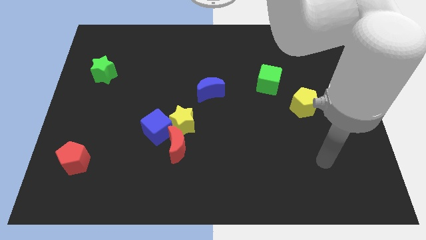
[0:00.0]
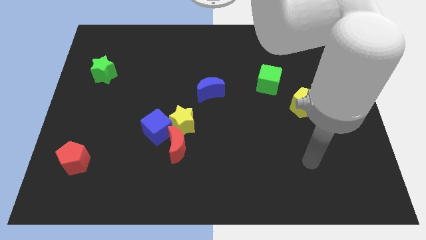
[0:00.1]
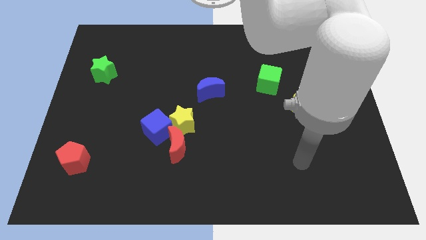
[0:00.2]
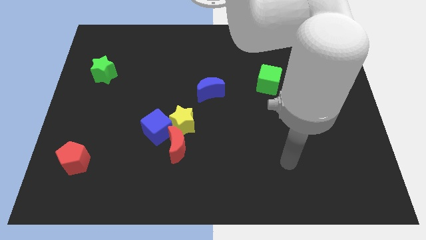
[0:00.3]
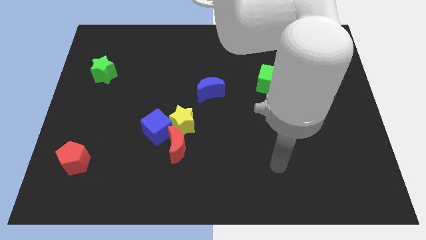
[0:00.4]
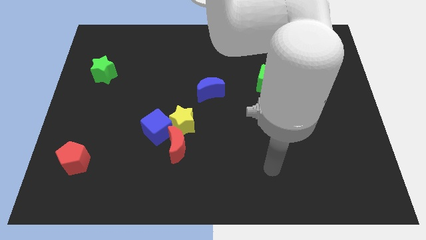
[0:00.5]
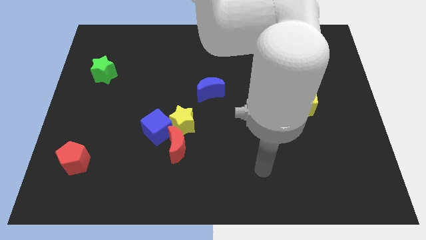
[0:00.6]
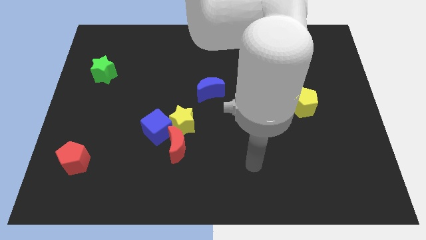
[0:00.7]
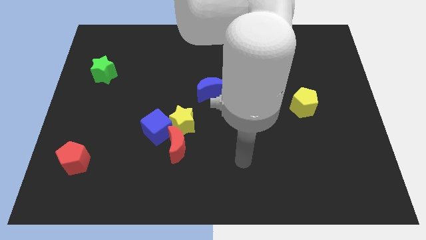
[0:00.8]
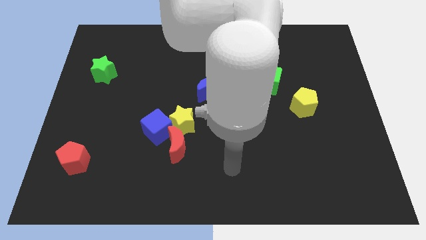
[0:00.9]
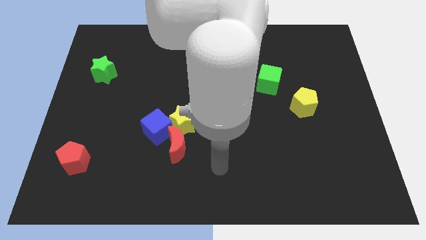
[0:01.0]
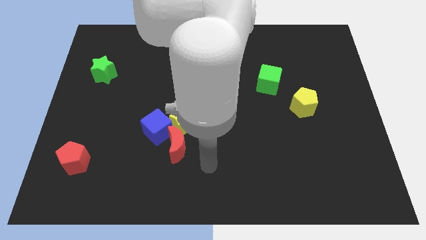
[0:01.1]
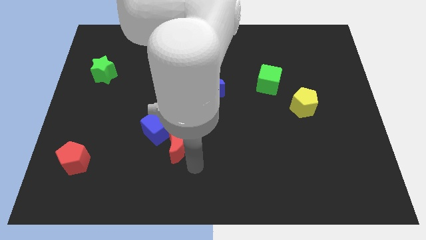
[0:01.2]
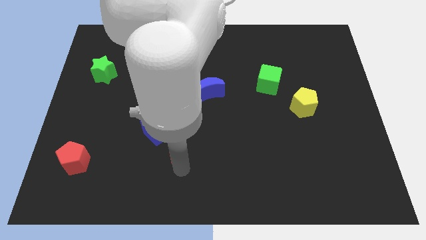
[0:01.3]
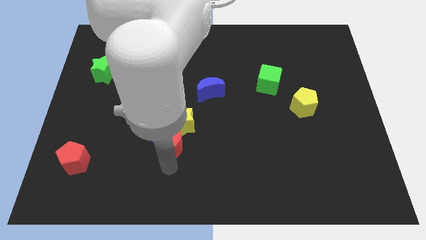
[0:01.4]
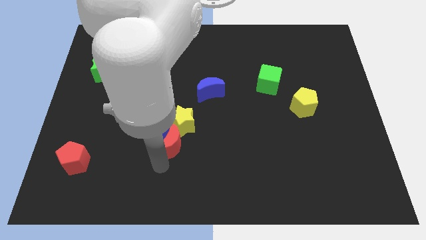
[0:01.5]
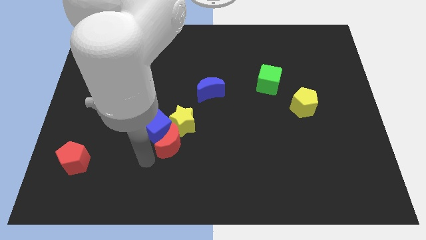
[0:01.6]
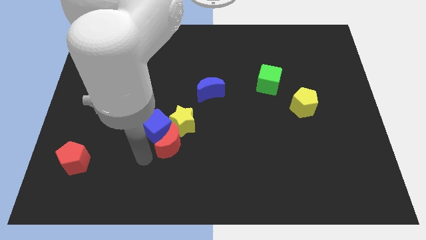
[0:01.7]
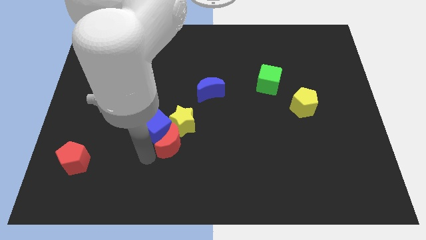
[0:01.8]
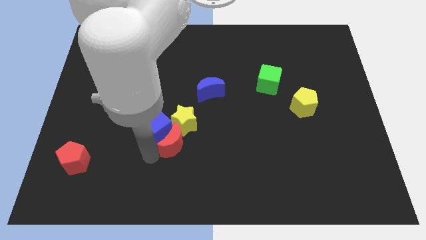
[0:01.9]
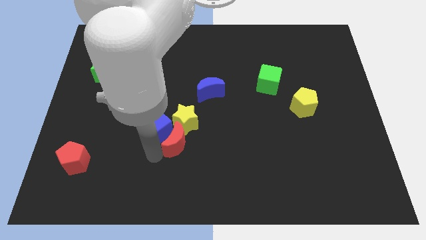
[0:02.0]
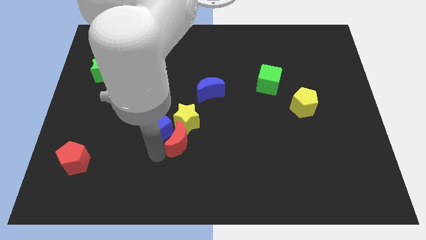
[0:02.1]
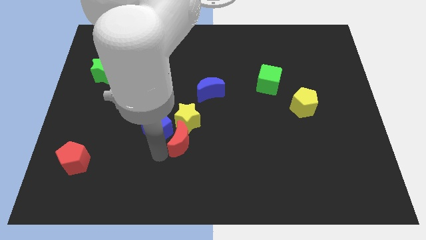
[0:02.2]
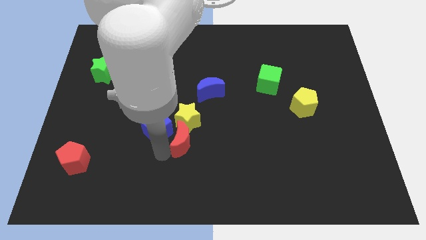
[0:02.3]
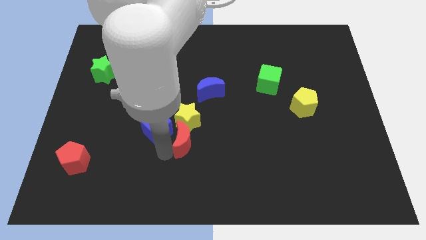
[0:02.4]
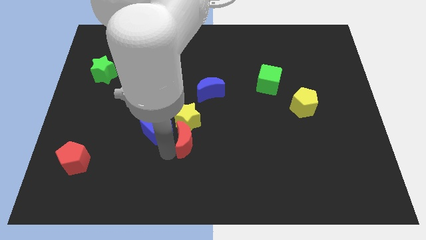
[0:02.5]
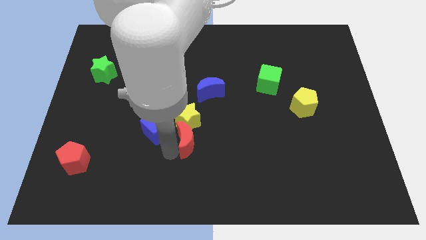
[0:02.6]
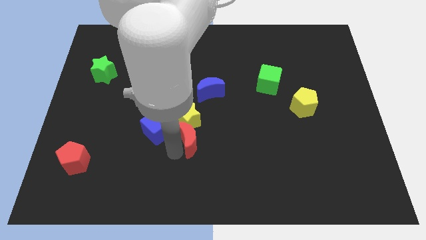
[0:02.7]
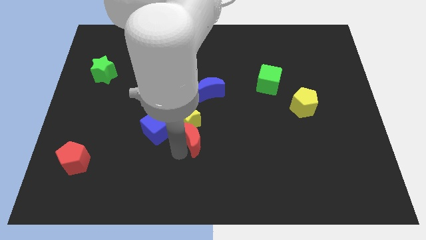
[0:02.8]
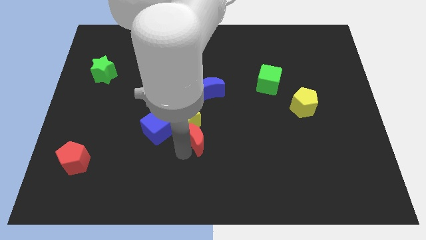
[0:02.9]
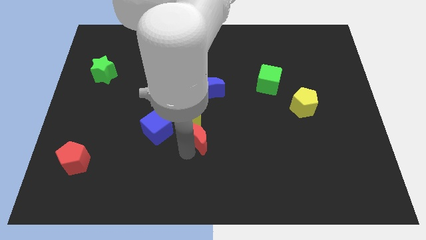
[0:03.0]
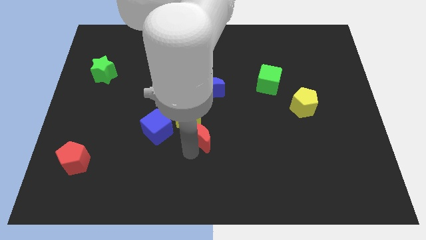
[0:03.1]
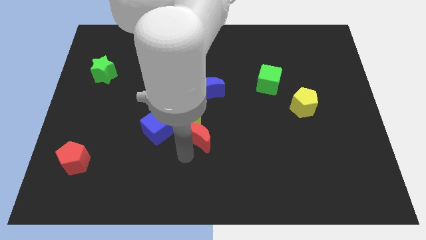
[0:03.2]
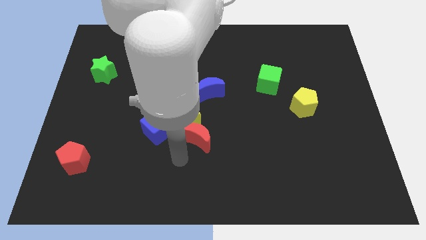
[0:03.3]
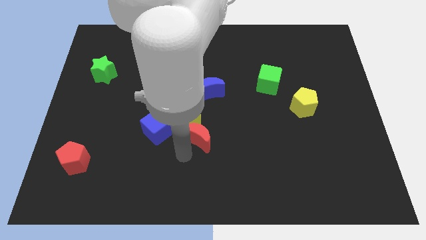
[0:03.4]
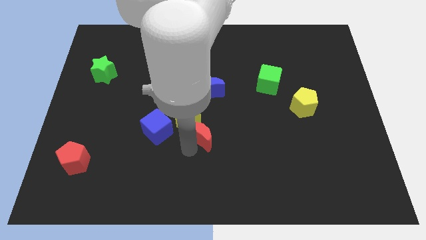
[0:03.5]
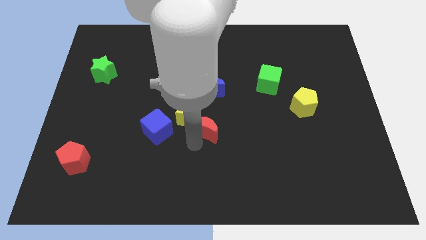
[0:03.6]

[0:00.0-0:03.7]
slightly move the red moon up and then to the right

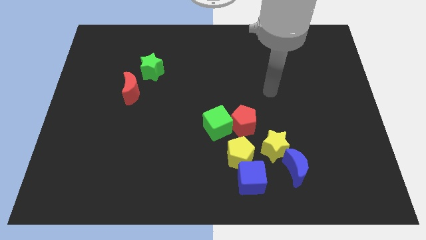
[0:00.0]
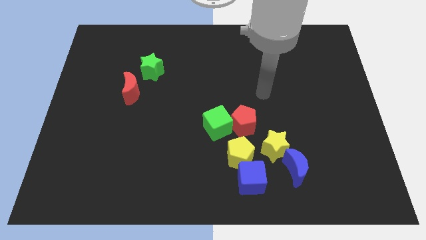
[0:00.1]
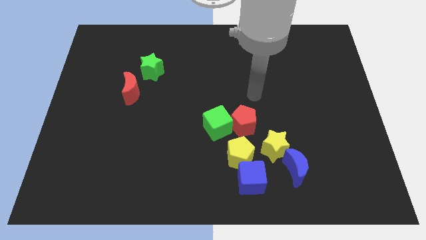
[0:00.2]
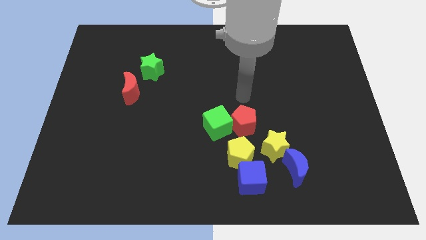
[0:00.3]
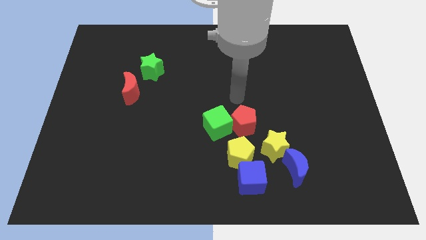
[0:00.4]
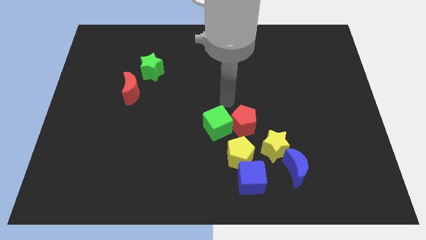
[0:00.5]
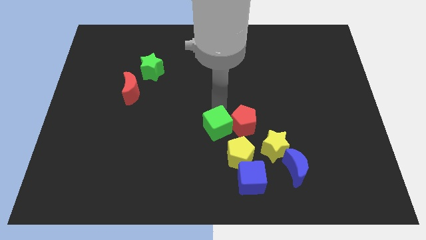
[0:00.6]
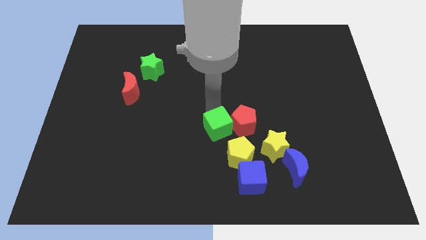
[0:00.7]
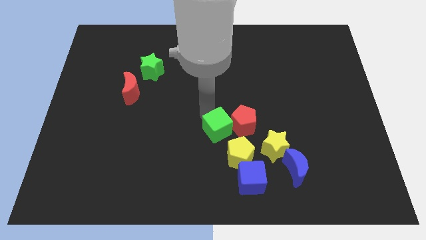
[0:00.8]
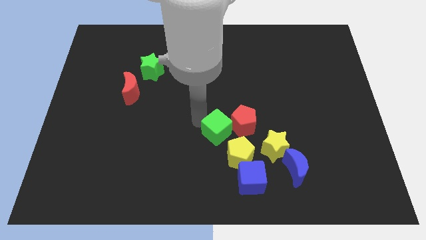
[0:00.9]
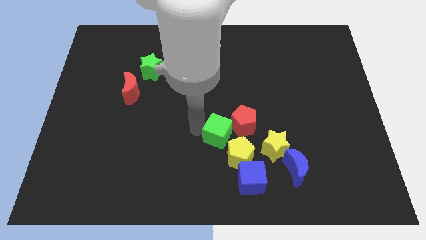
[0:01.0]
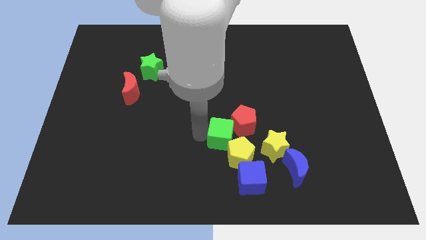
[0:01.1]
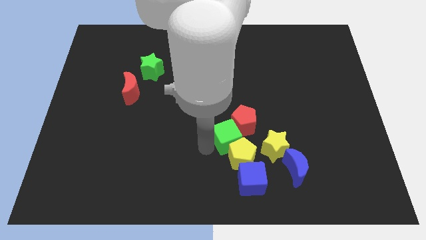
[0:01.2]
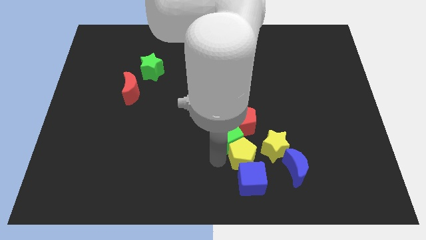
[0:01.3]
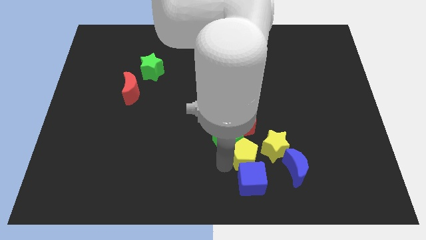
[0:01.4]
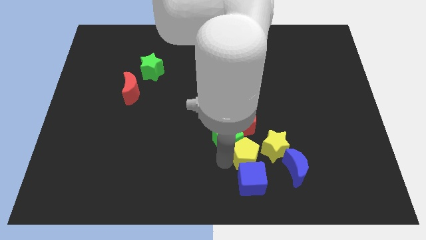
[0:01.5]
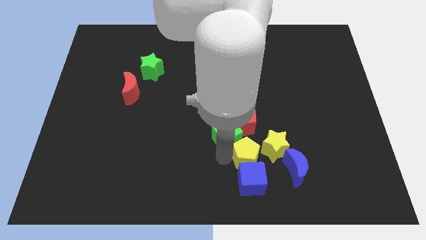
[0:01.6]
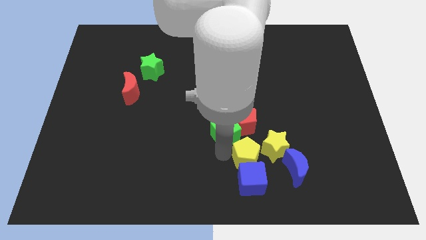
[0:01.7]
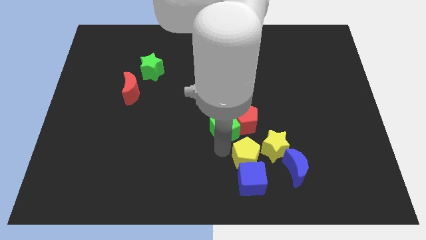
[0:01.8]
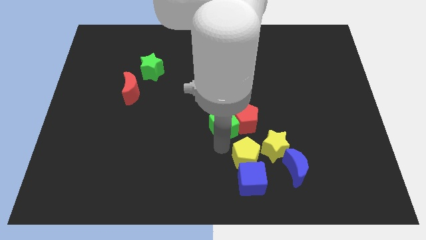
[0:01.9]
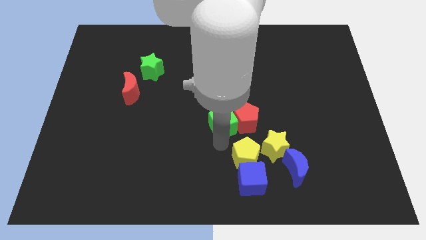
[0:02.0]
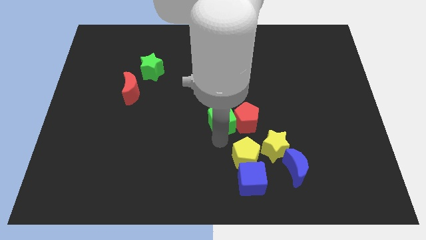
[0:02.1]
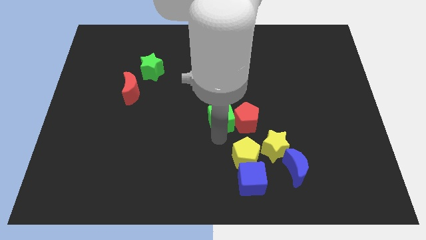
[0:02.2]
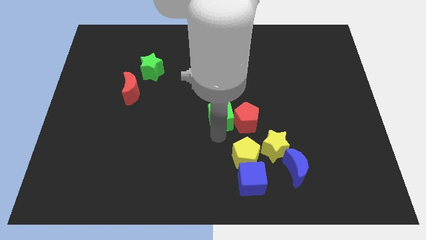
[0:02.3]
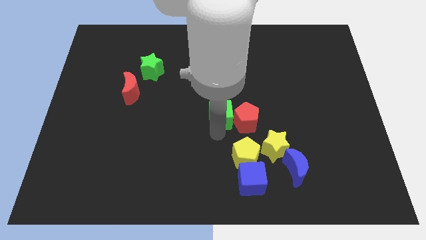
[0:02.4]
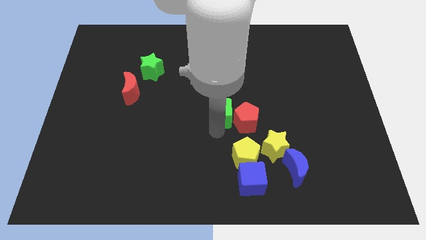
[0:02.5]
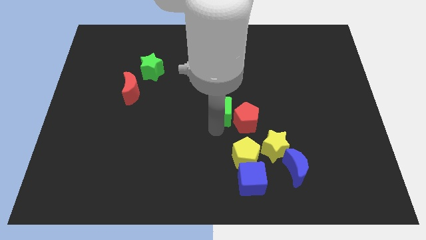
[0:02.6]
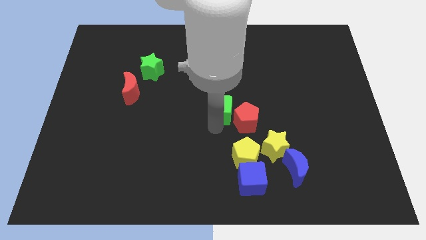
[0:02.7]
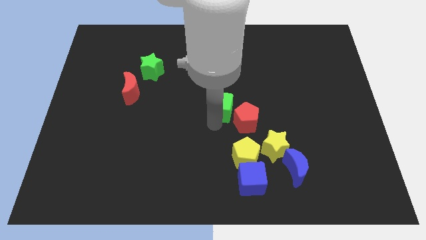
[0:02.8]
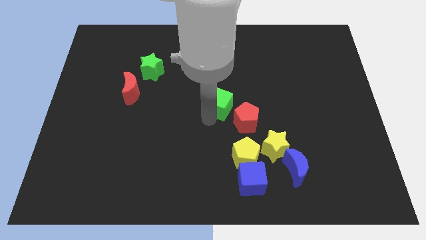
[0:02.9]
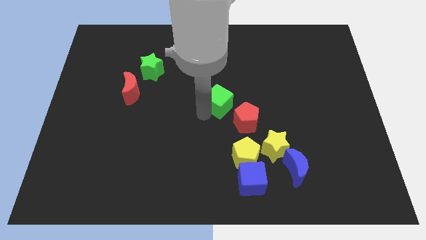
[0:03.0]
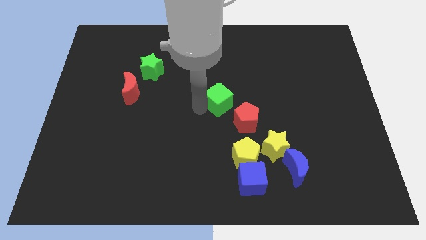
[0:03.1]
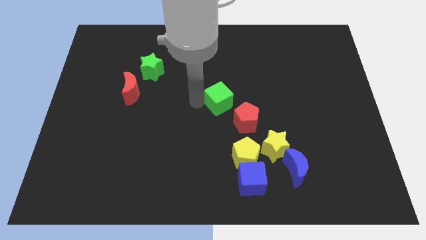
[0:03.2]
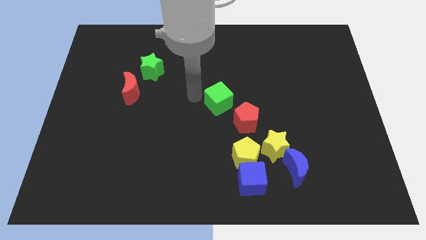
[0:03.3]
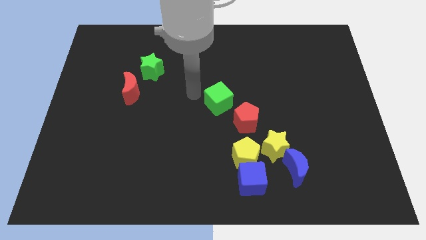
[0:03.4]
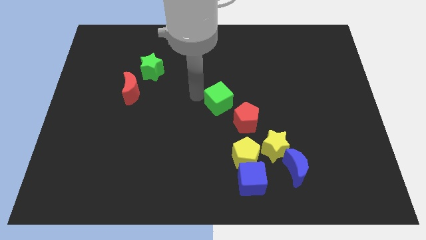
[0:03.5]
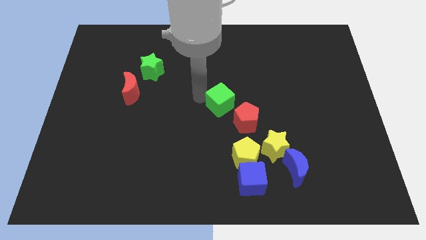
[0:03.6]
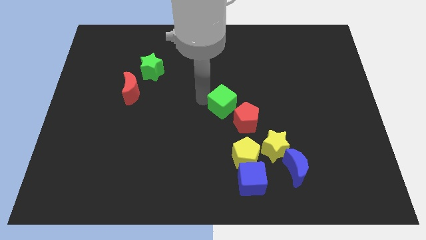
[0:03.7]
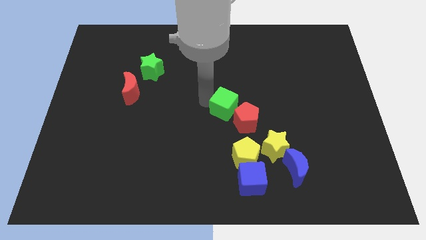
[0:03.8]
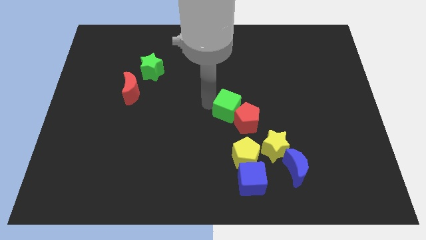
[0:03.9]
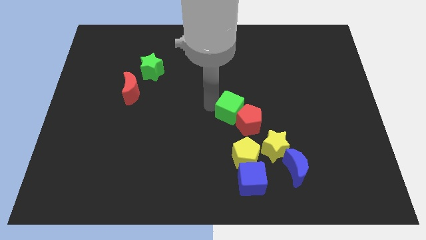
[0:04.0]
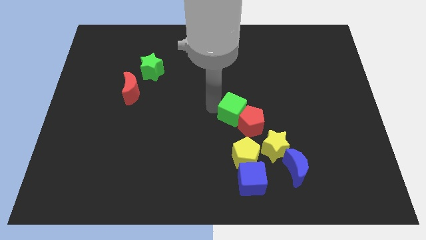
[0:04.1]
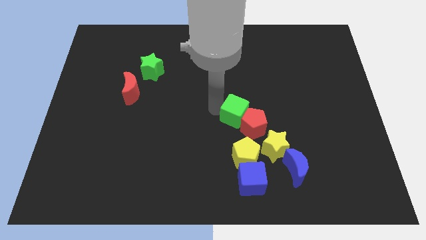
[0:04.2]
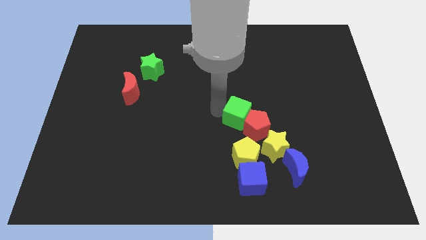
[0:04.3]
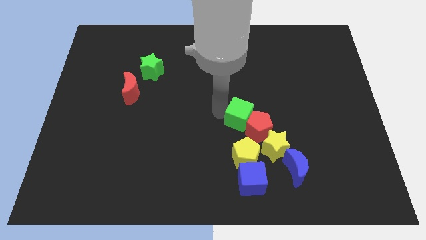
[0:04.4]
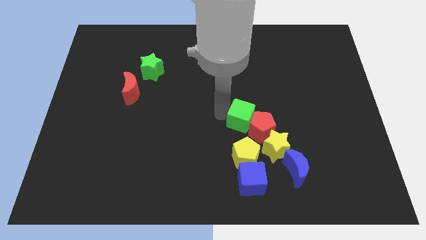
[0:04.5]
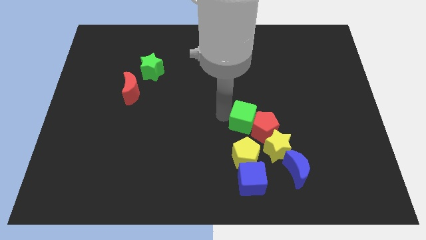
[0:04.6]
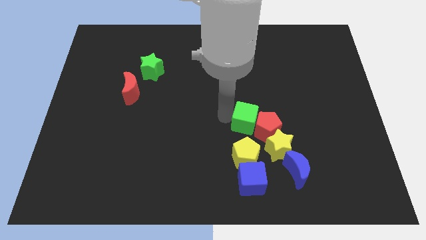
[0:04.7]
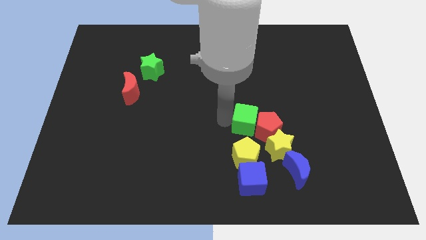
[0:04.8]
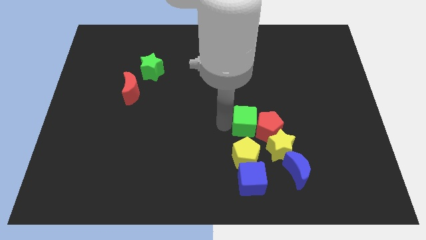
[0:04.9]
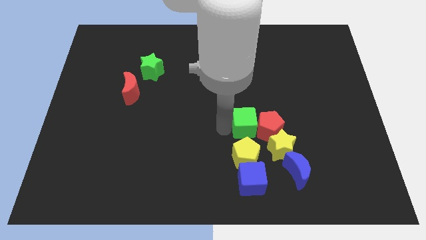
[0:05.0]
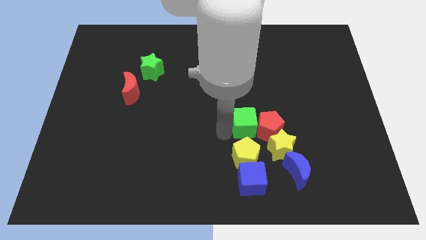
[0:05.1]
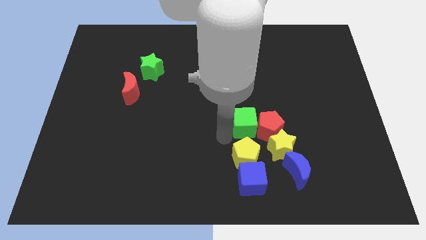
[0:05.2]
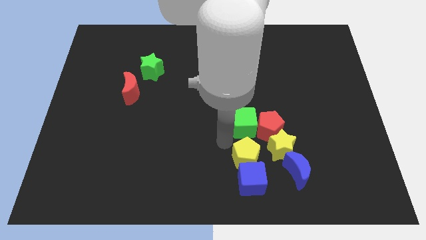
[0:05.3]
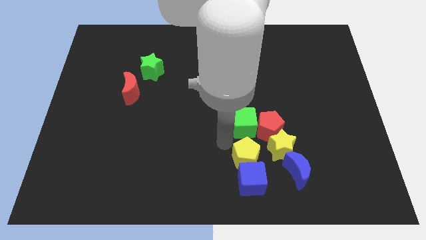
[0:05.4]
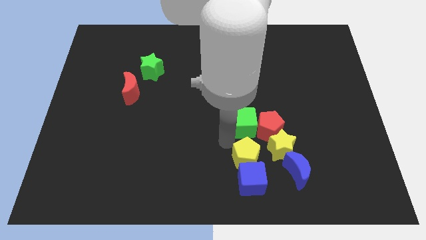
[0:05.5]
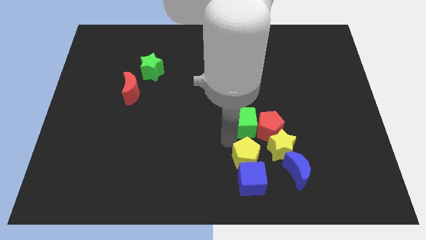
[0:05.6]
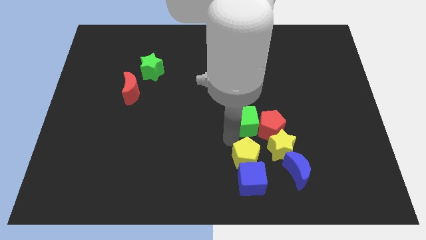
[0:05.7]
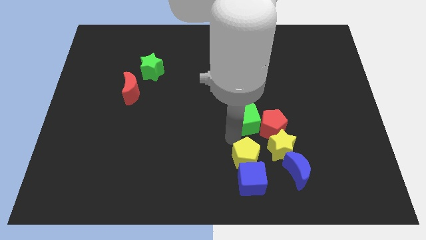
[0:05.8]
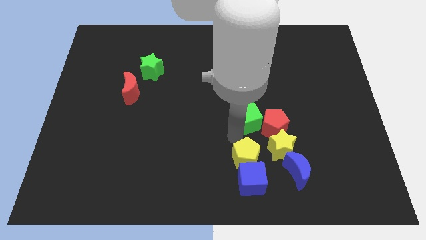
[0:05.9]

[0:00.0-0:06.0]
slightly push the green cube to the right
